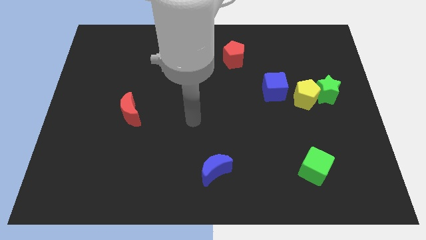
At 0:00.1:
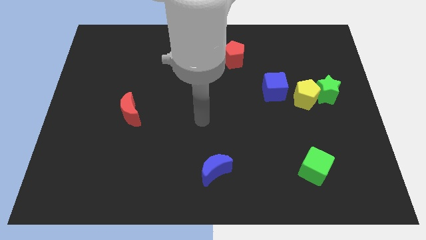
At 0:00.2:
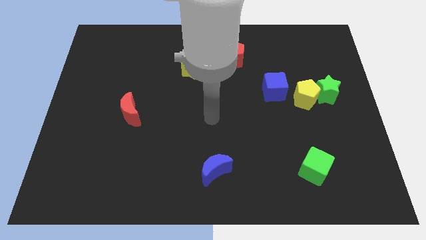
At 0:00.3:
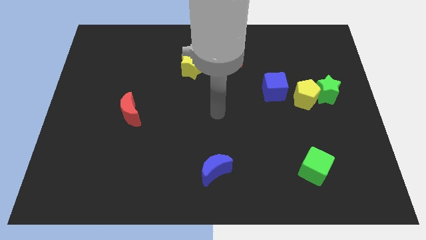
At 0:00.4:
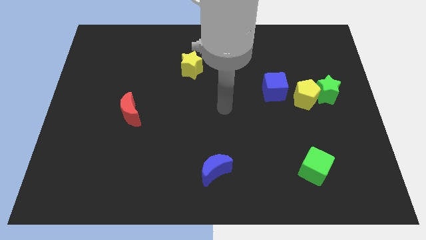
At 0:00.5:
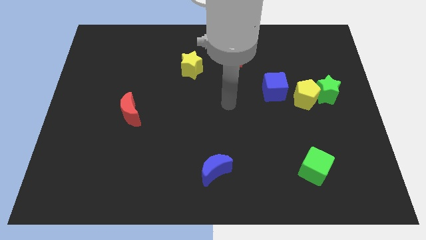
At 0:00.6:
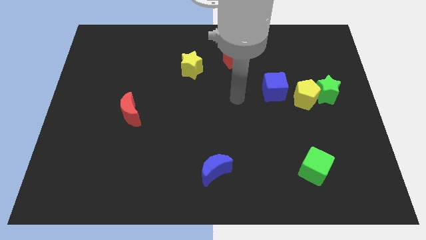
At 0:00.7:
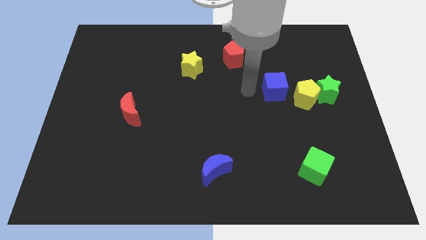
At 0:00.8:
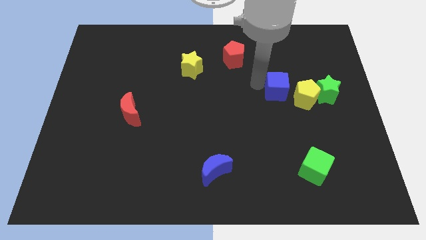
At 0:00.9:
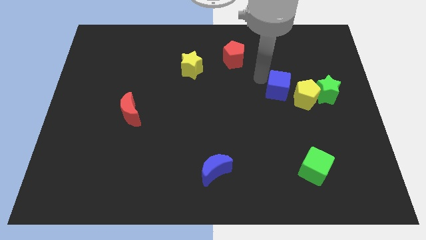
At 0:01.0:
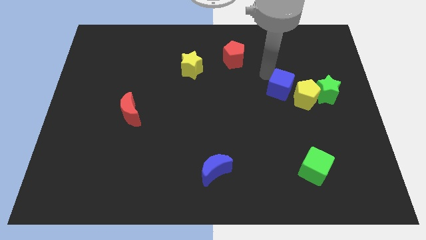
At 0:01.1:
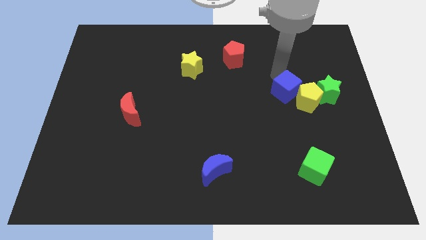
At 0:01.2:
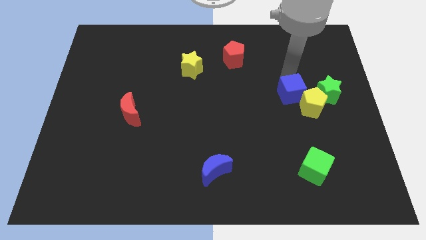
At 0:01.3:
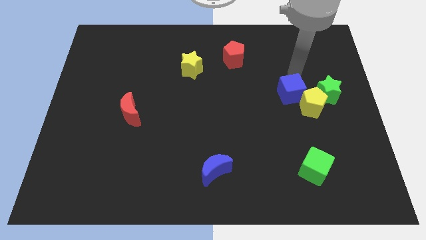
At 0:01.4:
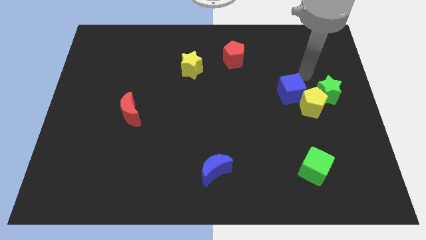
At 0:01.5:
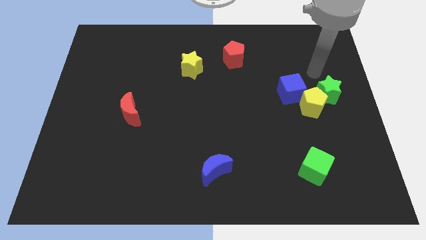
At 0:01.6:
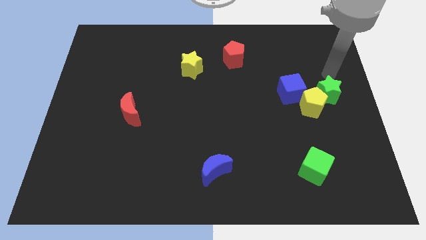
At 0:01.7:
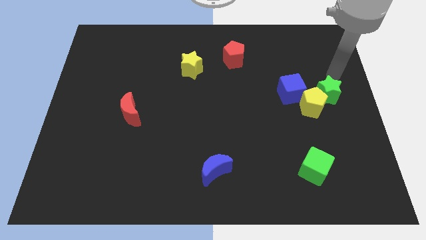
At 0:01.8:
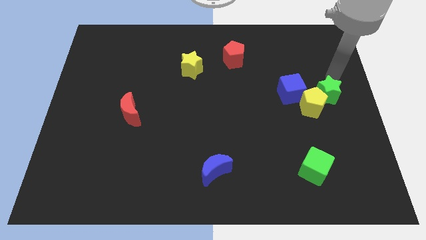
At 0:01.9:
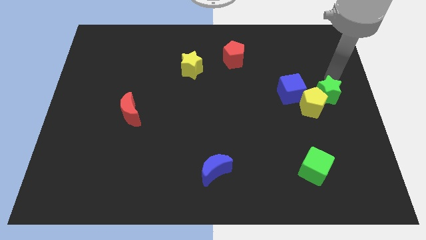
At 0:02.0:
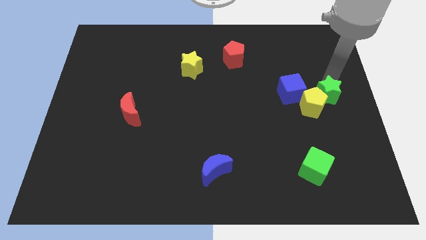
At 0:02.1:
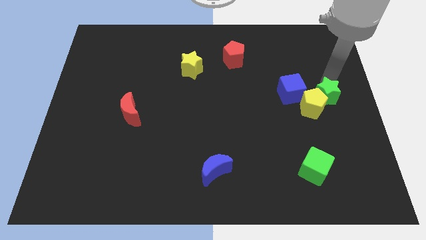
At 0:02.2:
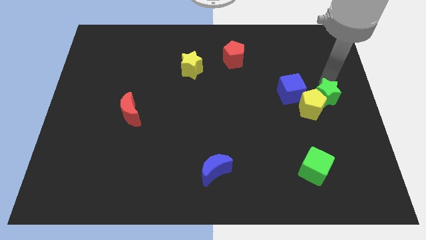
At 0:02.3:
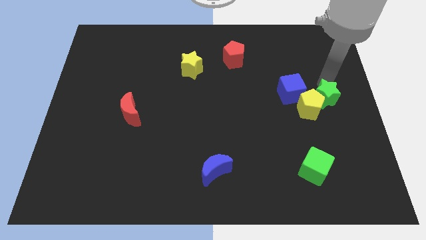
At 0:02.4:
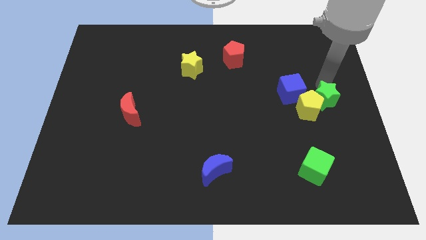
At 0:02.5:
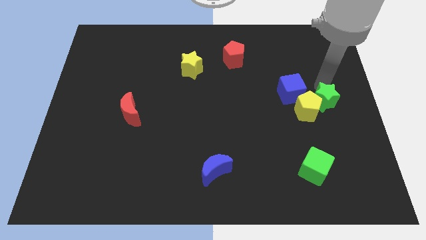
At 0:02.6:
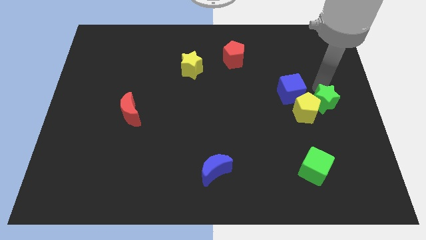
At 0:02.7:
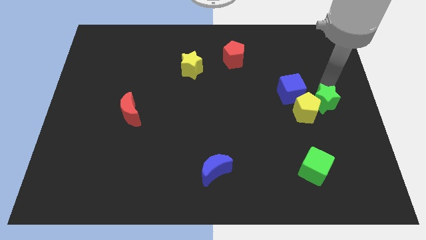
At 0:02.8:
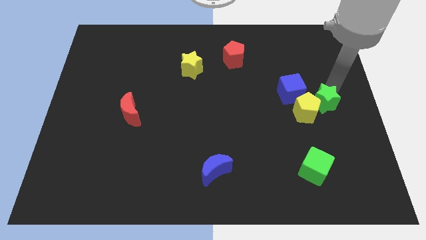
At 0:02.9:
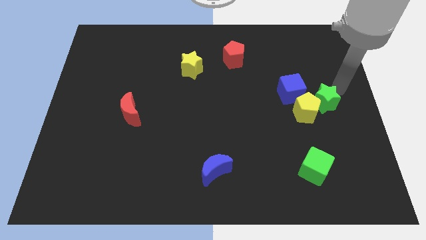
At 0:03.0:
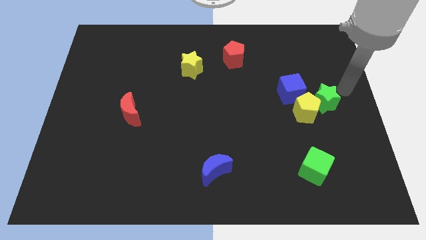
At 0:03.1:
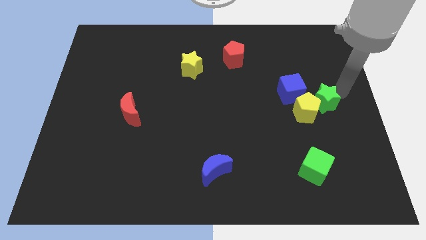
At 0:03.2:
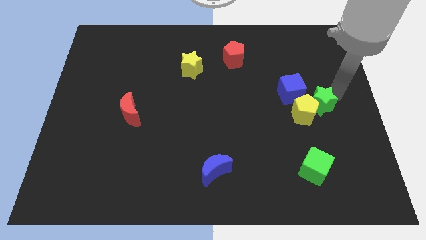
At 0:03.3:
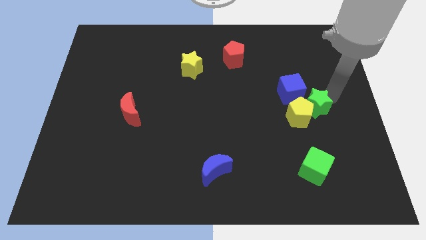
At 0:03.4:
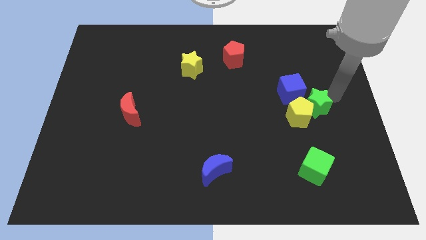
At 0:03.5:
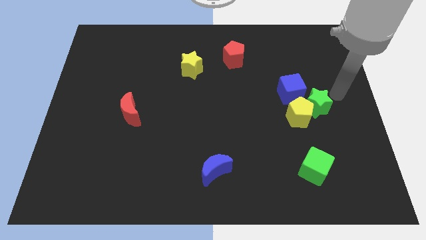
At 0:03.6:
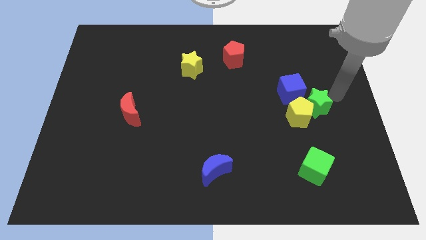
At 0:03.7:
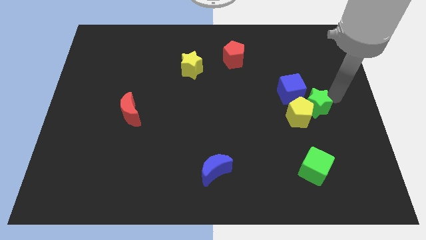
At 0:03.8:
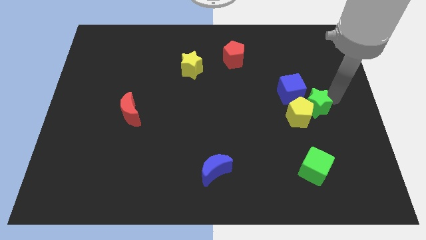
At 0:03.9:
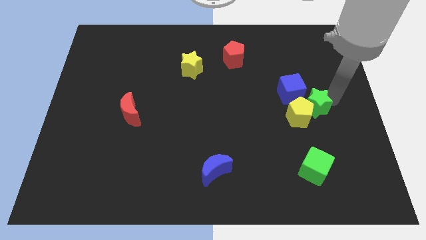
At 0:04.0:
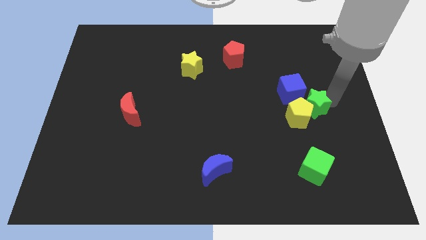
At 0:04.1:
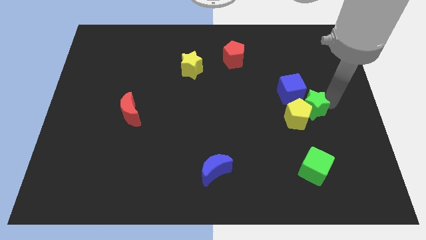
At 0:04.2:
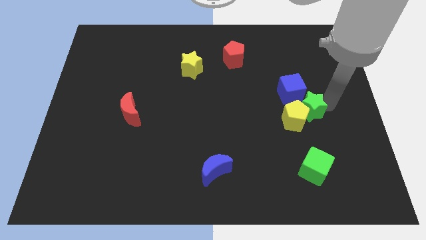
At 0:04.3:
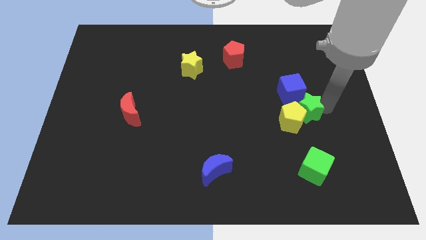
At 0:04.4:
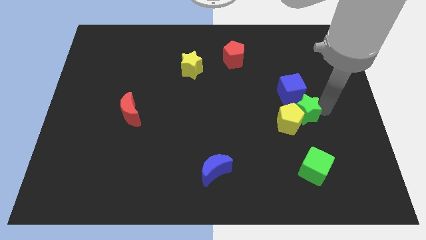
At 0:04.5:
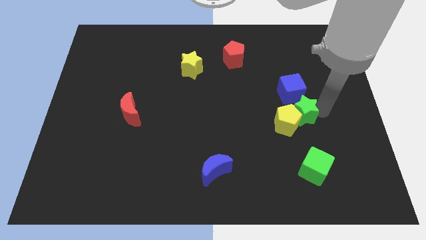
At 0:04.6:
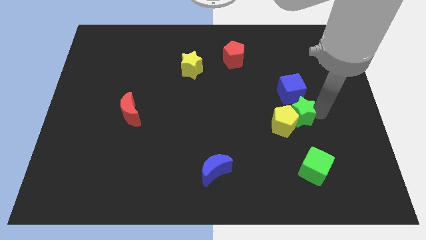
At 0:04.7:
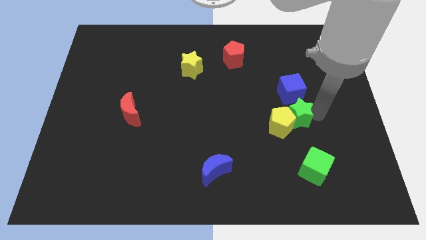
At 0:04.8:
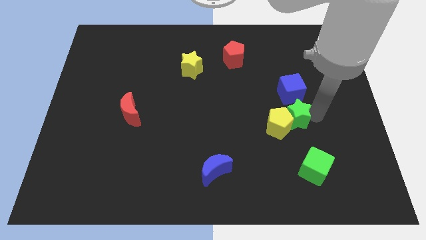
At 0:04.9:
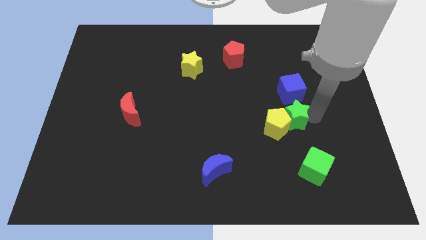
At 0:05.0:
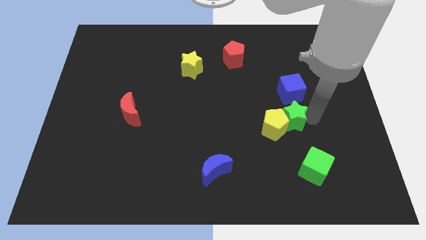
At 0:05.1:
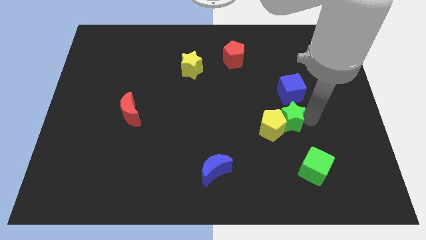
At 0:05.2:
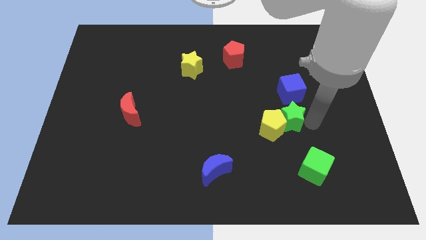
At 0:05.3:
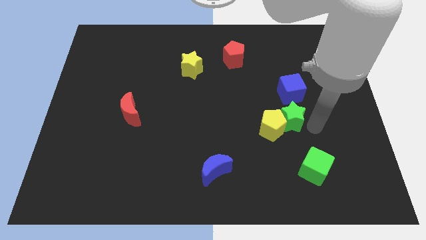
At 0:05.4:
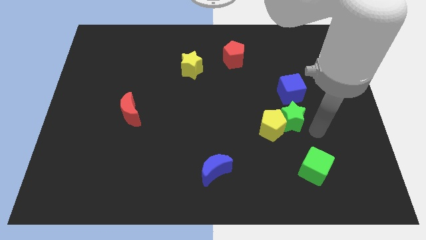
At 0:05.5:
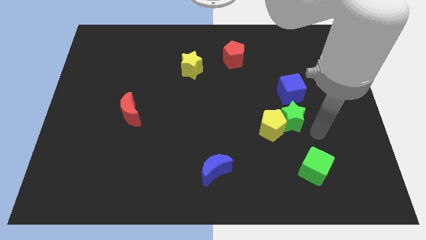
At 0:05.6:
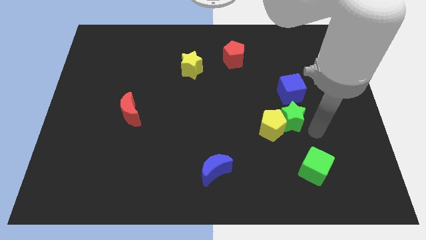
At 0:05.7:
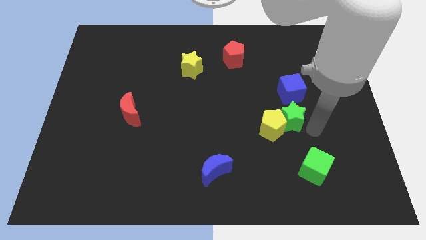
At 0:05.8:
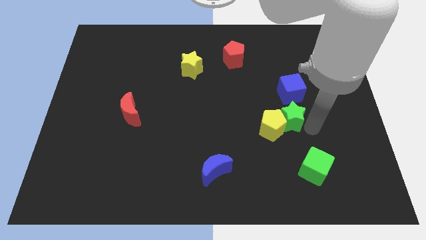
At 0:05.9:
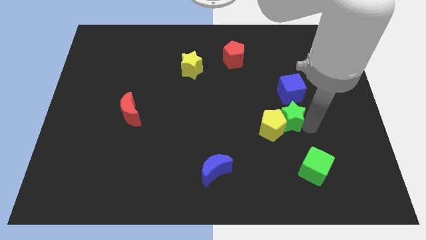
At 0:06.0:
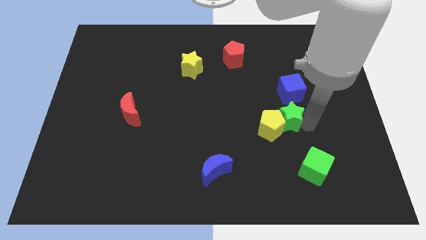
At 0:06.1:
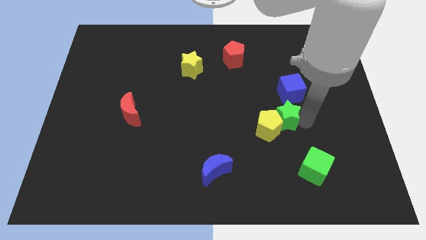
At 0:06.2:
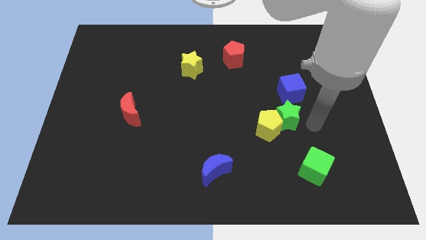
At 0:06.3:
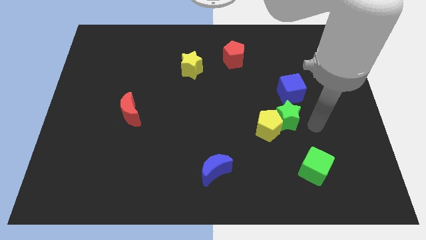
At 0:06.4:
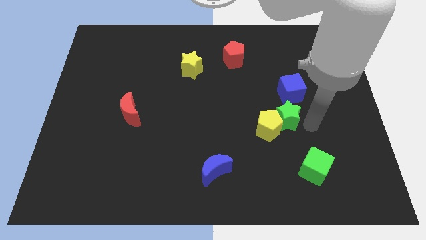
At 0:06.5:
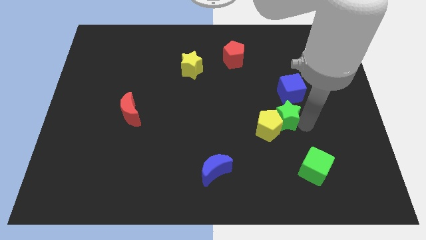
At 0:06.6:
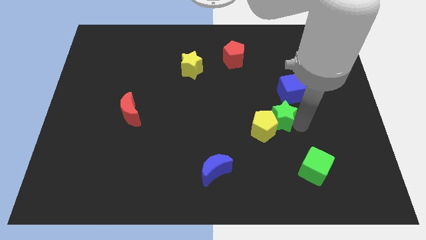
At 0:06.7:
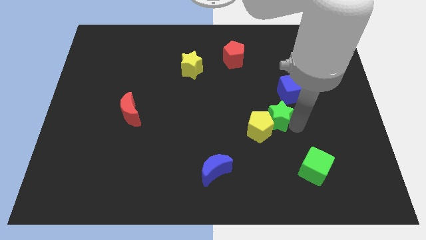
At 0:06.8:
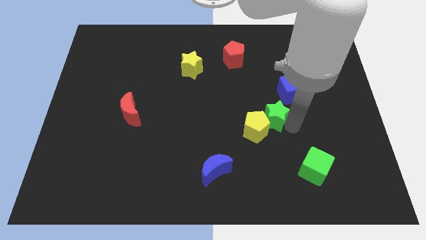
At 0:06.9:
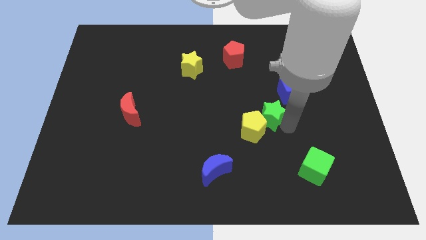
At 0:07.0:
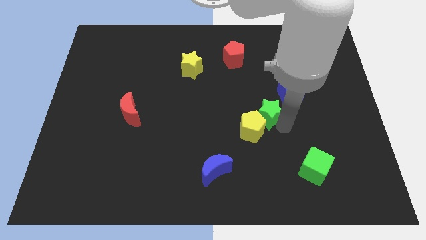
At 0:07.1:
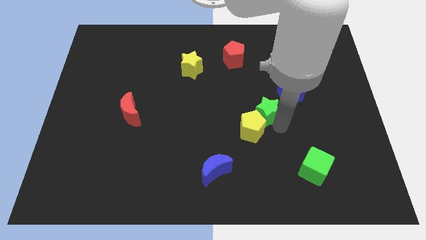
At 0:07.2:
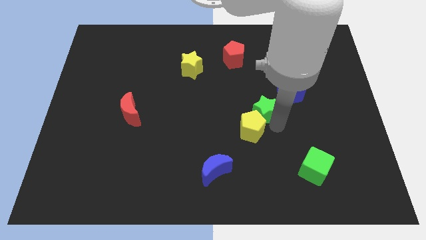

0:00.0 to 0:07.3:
put the green star to the center of the board
